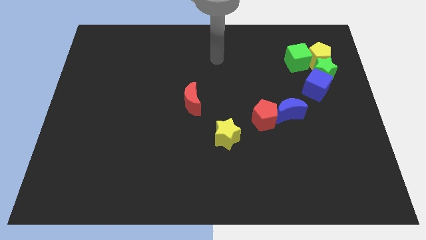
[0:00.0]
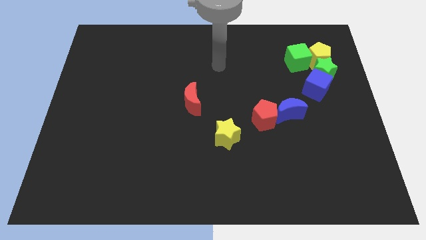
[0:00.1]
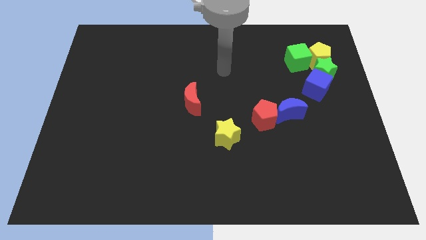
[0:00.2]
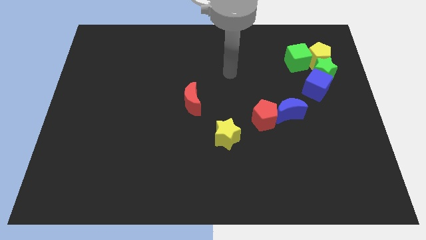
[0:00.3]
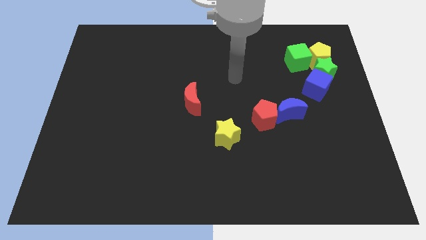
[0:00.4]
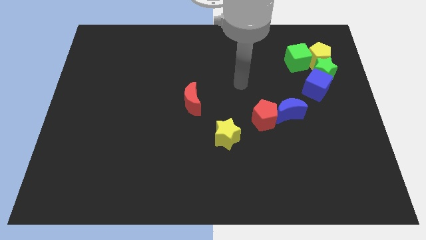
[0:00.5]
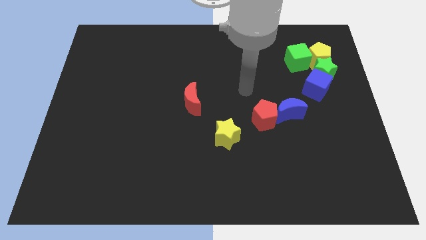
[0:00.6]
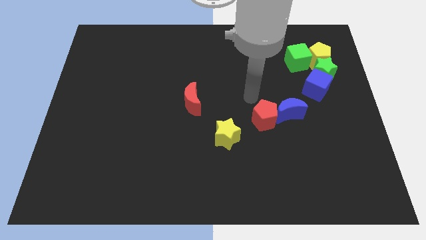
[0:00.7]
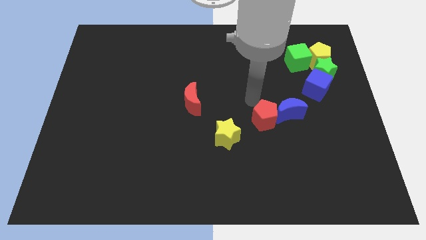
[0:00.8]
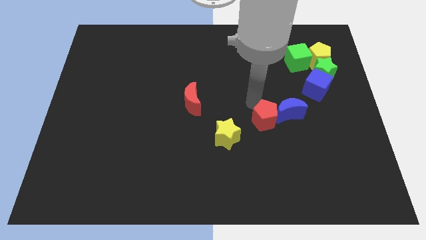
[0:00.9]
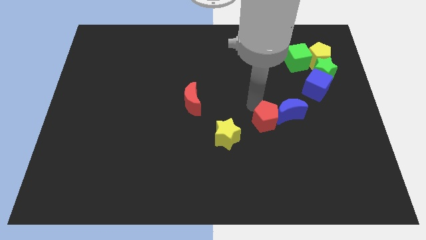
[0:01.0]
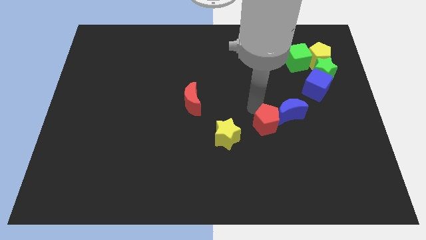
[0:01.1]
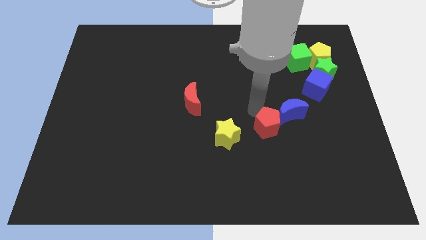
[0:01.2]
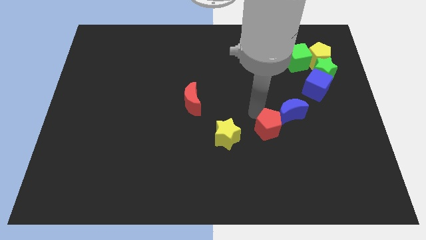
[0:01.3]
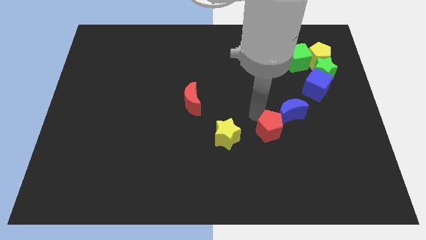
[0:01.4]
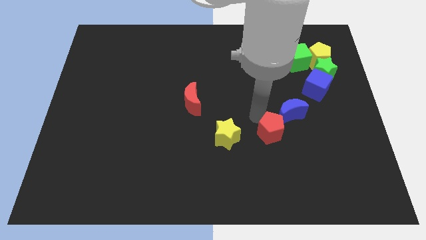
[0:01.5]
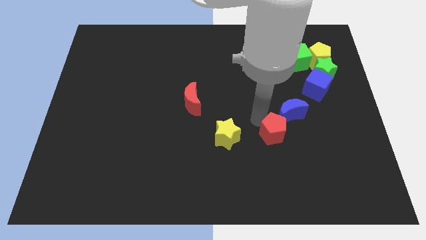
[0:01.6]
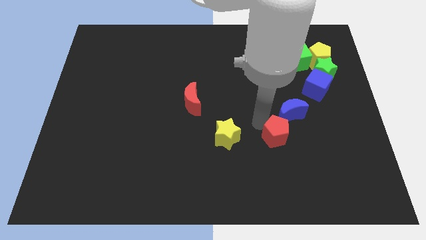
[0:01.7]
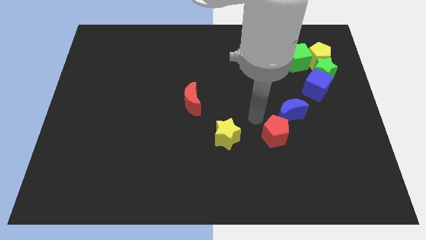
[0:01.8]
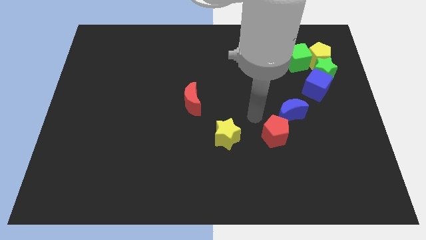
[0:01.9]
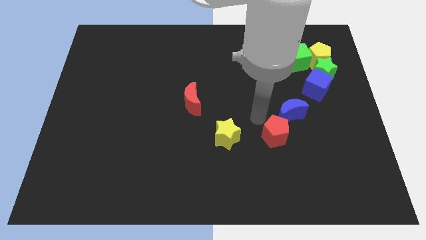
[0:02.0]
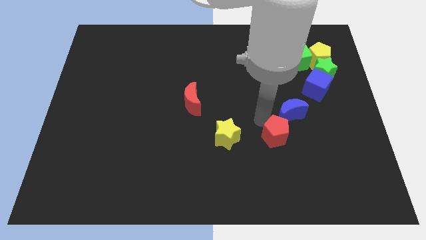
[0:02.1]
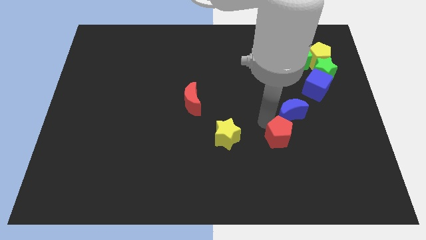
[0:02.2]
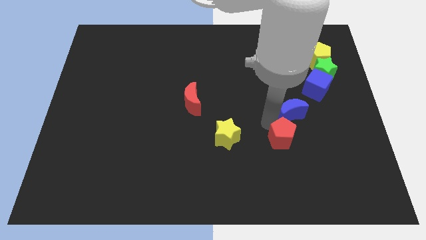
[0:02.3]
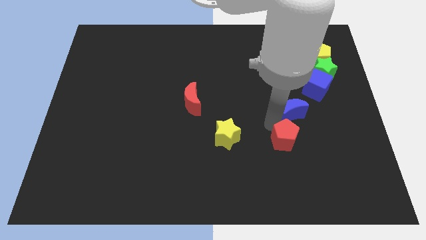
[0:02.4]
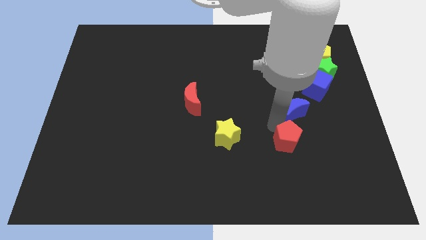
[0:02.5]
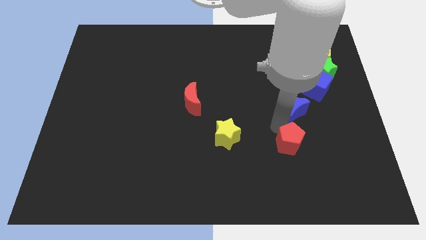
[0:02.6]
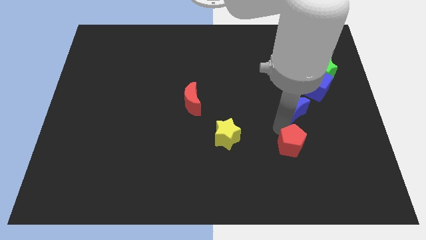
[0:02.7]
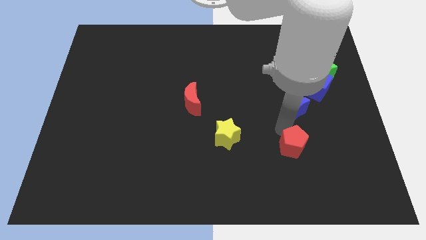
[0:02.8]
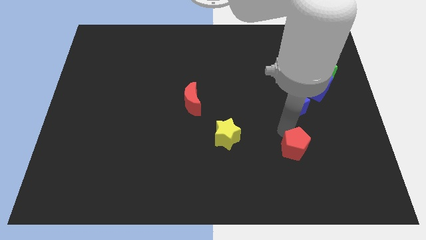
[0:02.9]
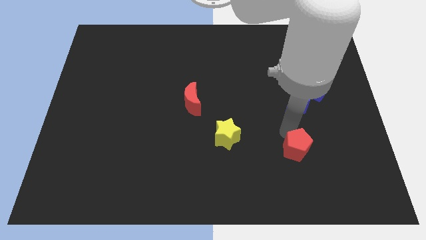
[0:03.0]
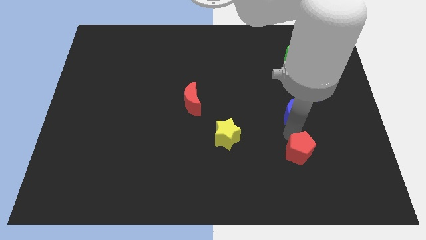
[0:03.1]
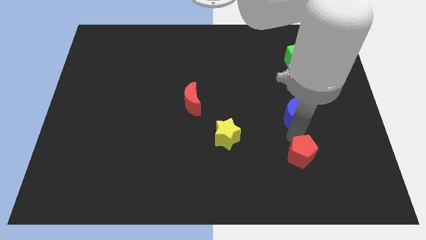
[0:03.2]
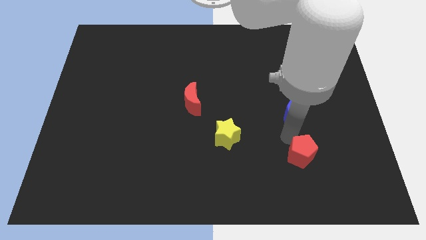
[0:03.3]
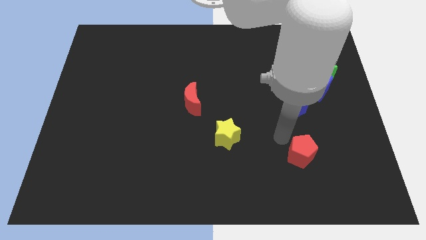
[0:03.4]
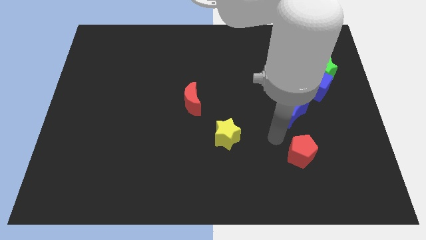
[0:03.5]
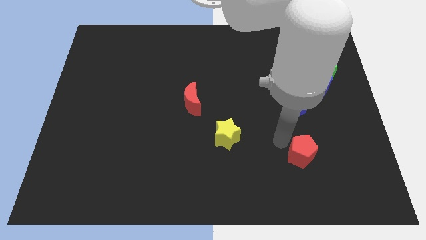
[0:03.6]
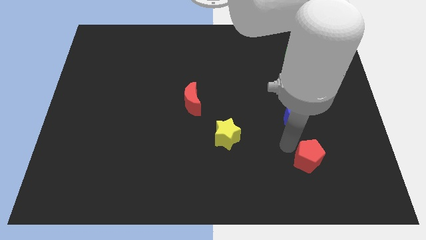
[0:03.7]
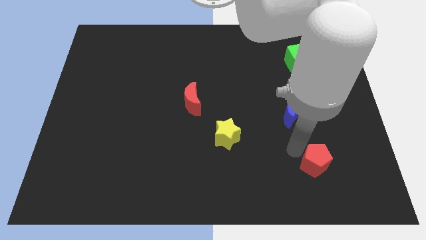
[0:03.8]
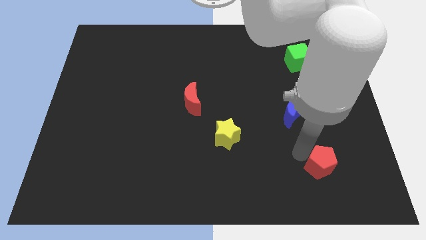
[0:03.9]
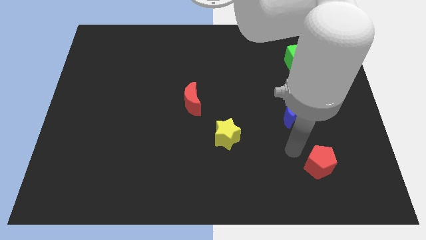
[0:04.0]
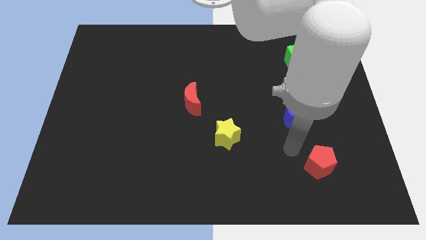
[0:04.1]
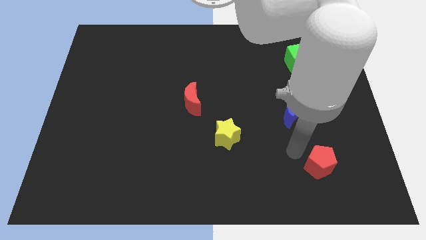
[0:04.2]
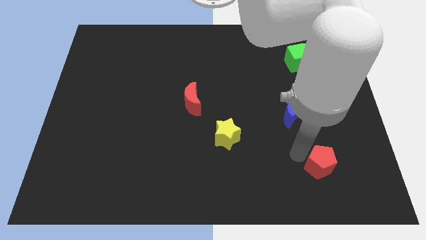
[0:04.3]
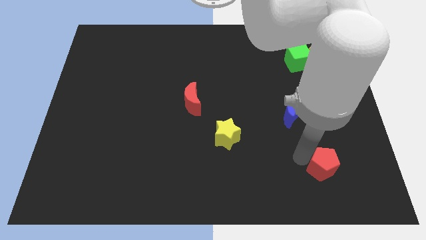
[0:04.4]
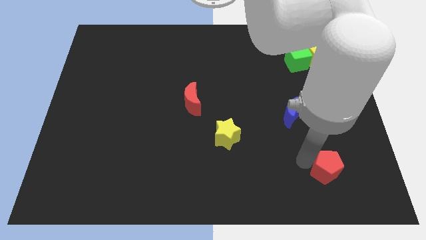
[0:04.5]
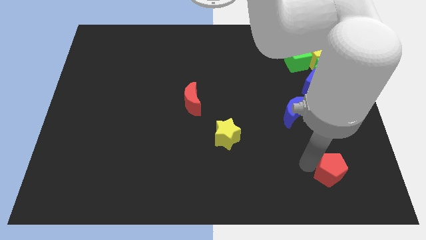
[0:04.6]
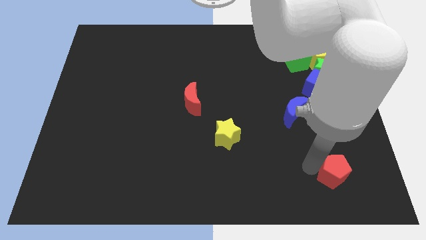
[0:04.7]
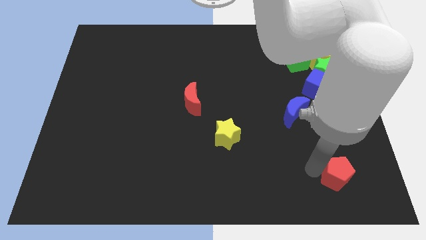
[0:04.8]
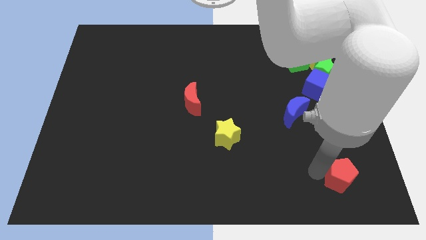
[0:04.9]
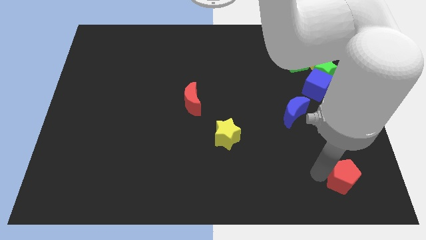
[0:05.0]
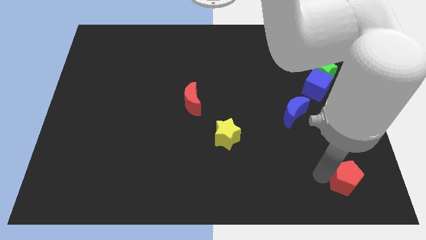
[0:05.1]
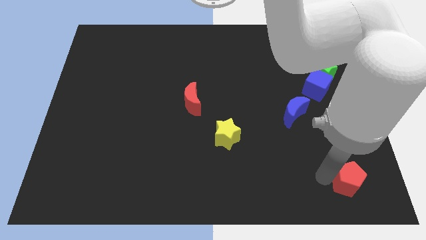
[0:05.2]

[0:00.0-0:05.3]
push the red pentagon to the lower right corner
